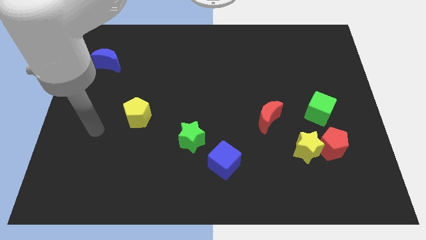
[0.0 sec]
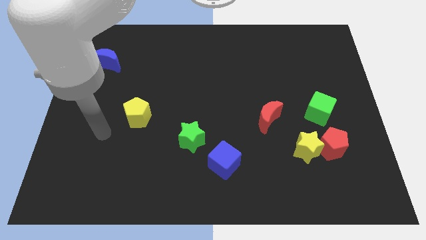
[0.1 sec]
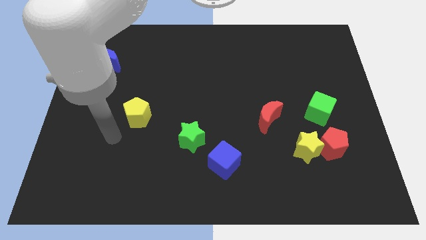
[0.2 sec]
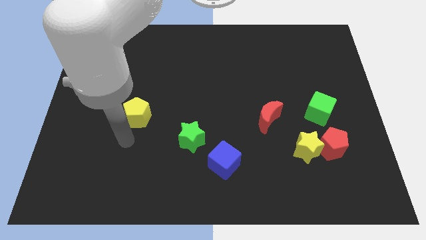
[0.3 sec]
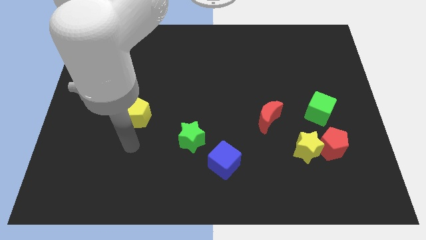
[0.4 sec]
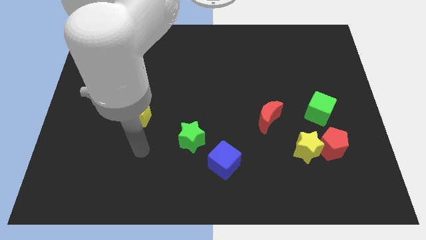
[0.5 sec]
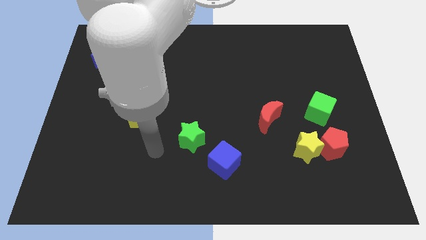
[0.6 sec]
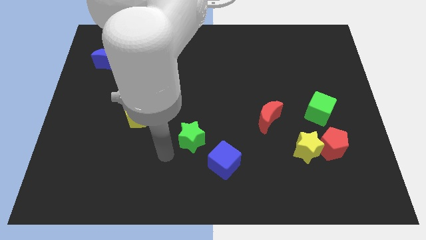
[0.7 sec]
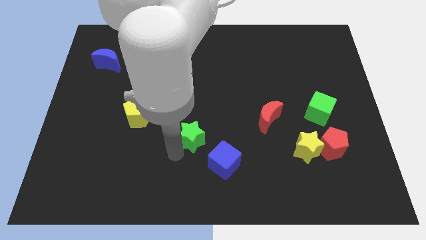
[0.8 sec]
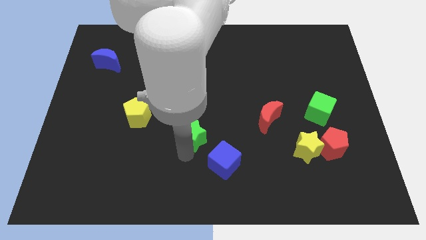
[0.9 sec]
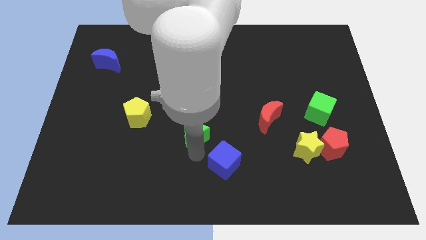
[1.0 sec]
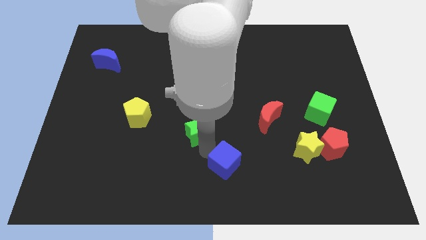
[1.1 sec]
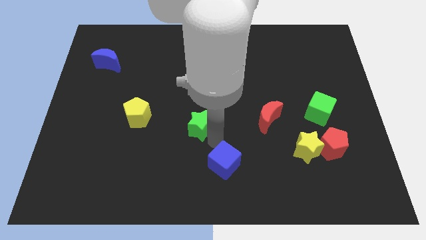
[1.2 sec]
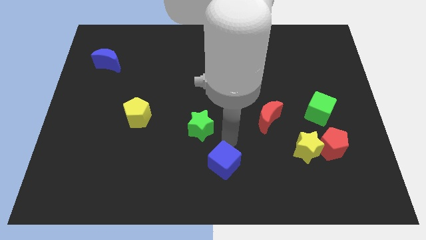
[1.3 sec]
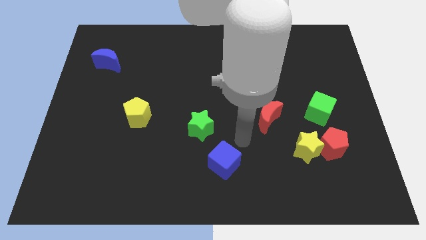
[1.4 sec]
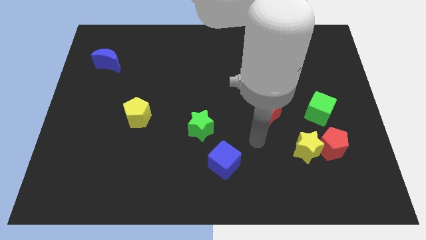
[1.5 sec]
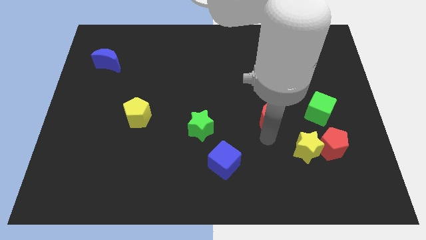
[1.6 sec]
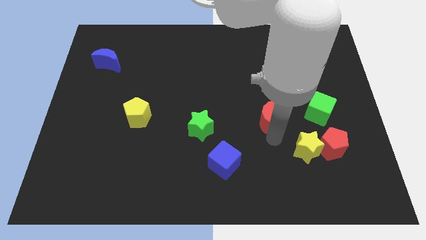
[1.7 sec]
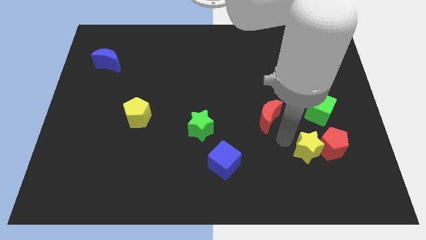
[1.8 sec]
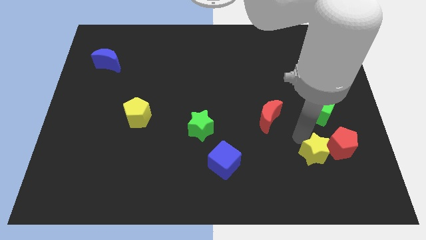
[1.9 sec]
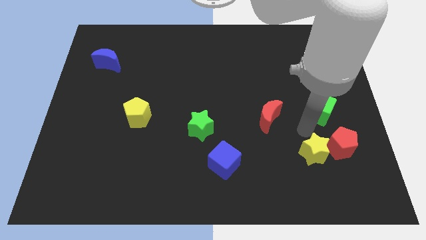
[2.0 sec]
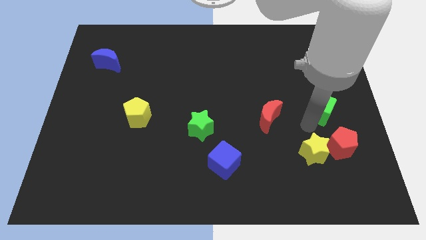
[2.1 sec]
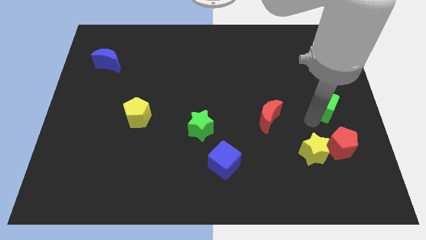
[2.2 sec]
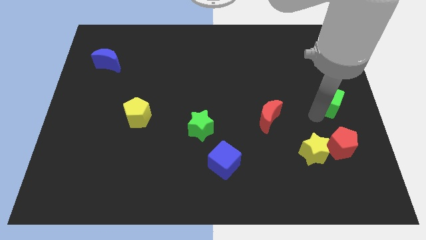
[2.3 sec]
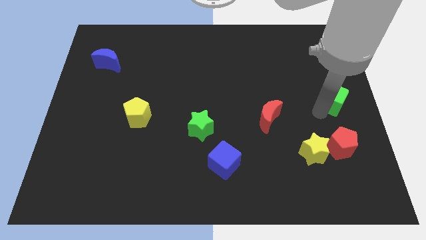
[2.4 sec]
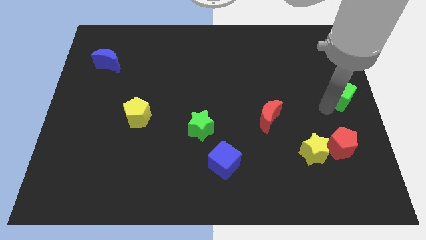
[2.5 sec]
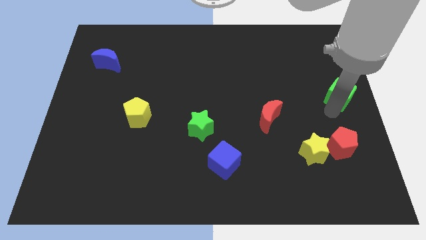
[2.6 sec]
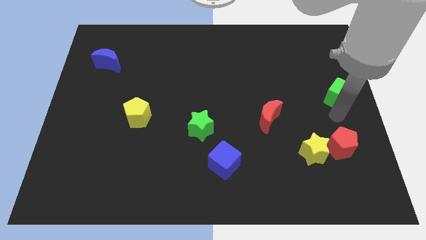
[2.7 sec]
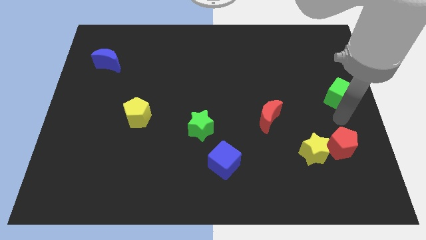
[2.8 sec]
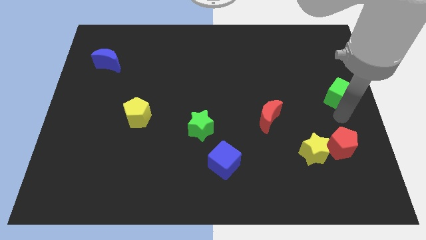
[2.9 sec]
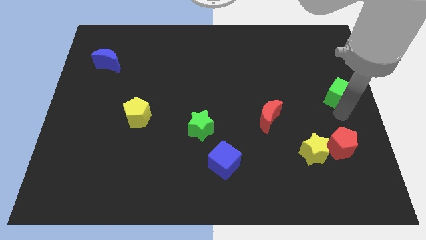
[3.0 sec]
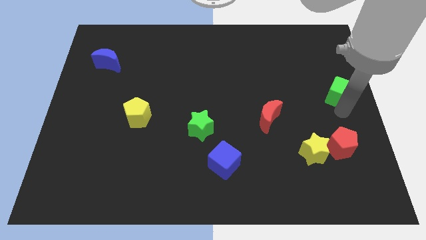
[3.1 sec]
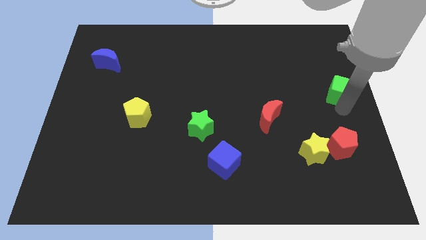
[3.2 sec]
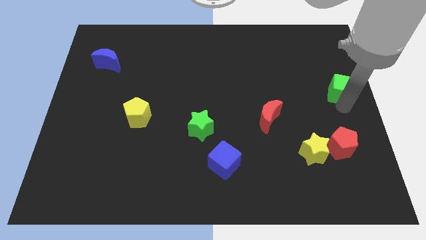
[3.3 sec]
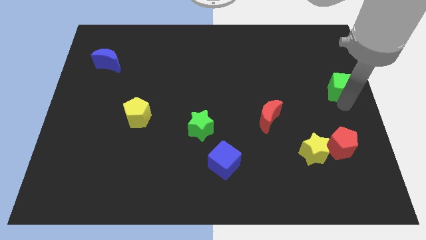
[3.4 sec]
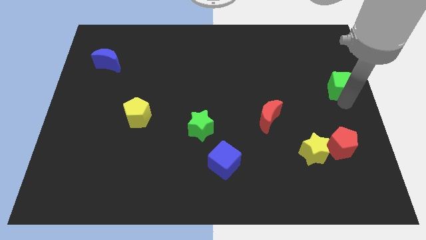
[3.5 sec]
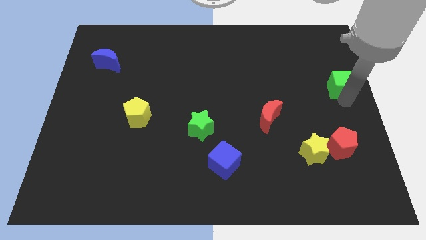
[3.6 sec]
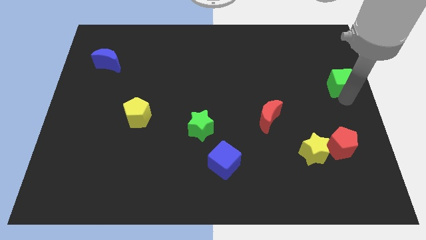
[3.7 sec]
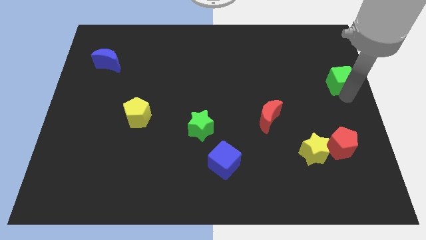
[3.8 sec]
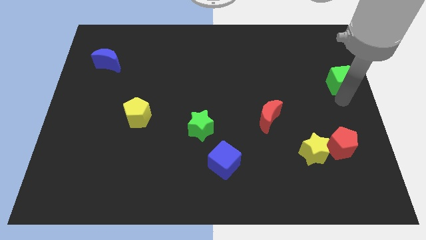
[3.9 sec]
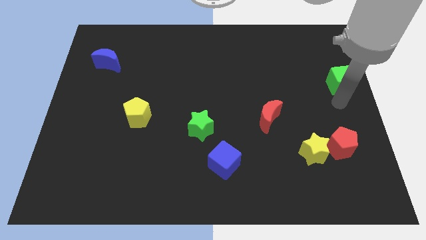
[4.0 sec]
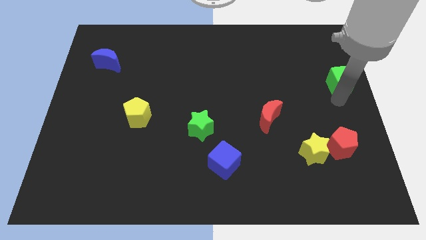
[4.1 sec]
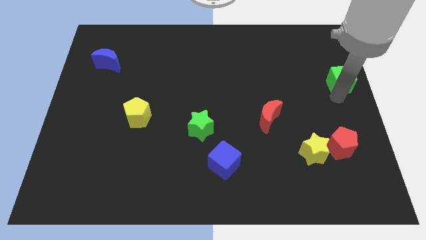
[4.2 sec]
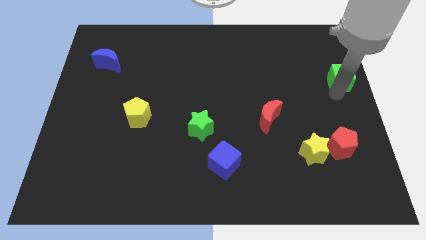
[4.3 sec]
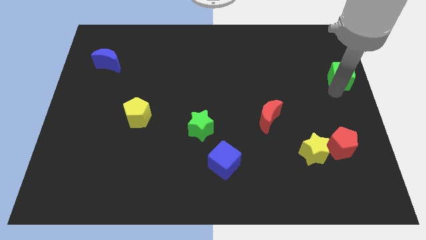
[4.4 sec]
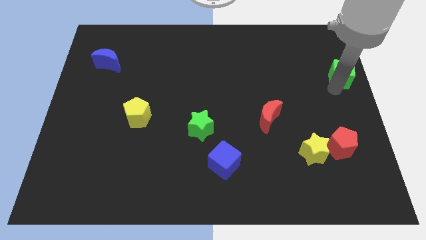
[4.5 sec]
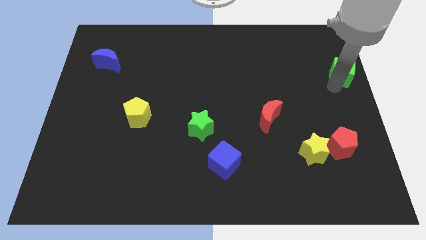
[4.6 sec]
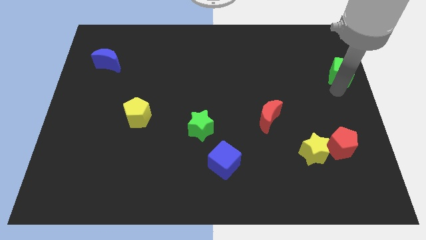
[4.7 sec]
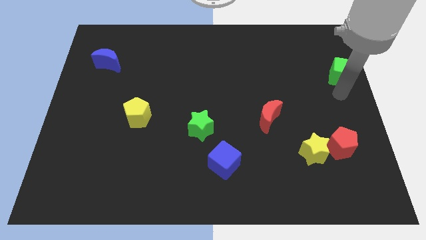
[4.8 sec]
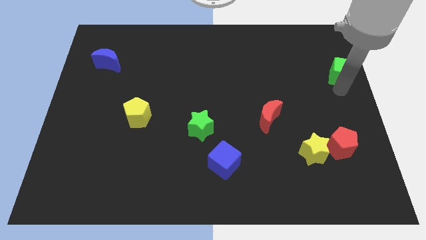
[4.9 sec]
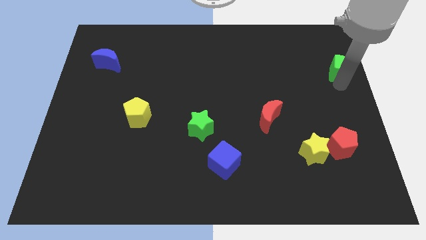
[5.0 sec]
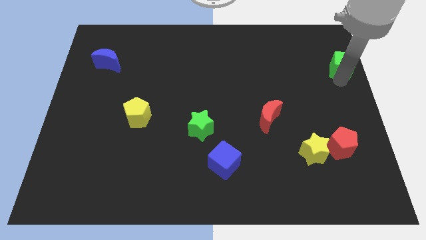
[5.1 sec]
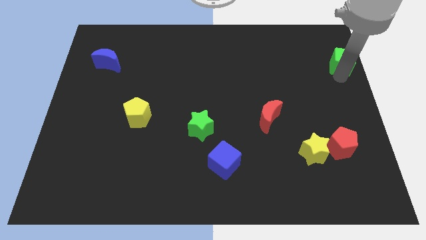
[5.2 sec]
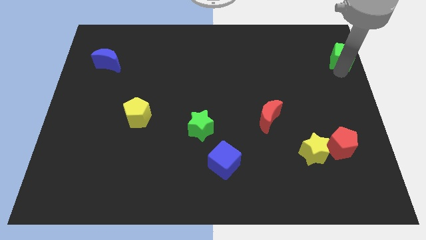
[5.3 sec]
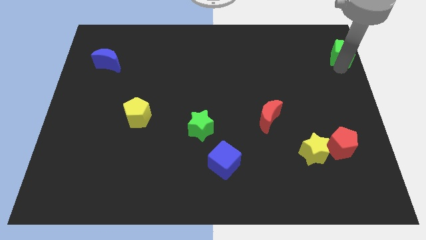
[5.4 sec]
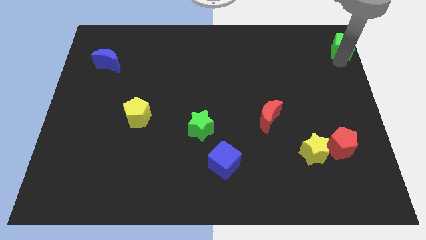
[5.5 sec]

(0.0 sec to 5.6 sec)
move the green cube to the top right corner
